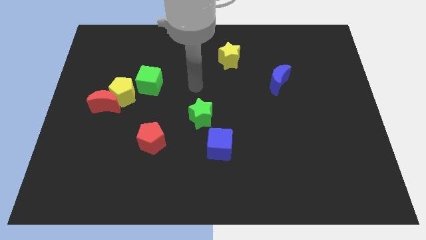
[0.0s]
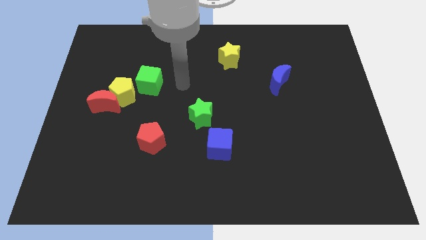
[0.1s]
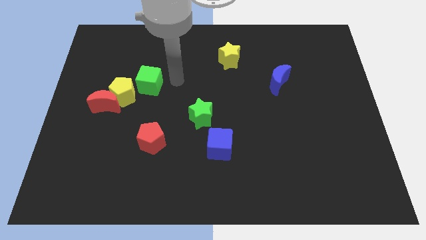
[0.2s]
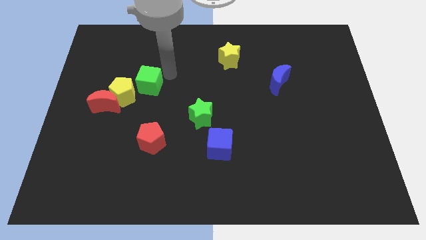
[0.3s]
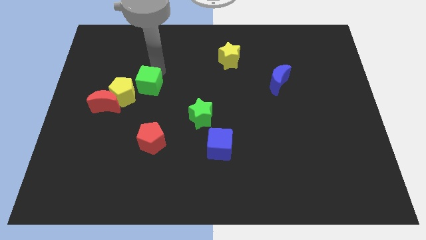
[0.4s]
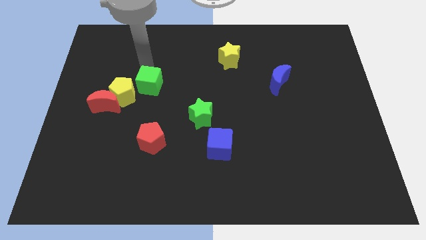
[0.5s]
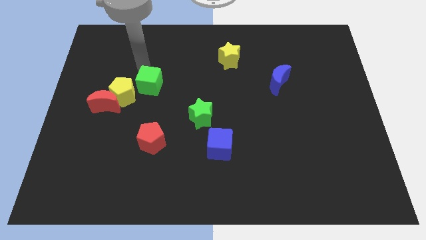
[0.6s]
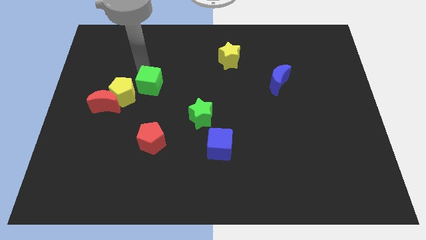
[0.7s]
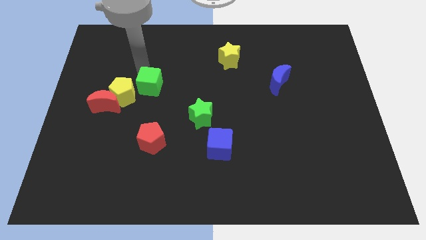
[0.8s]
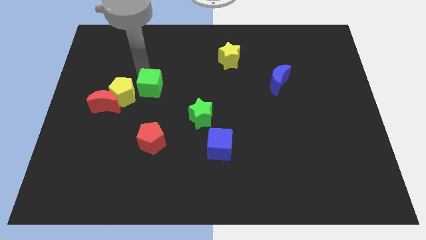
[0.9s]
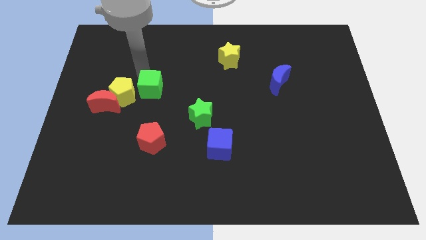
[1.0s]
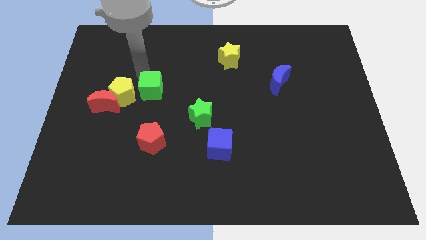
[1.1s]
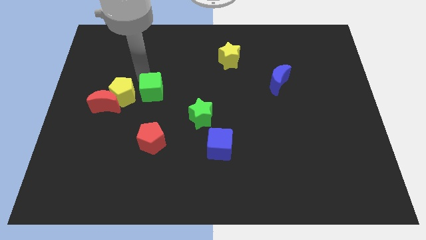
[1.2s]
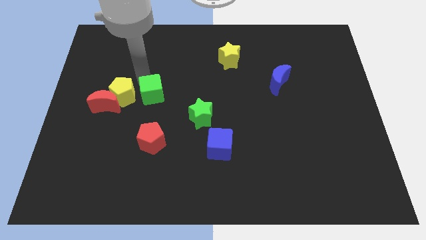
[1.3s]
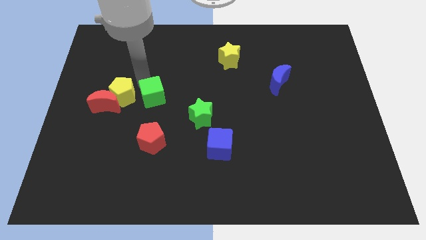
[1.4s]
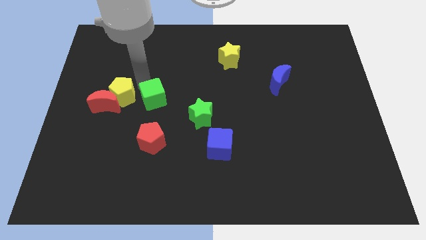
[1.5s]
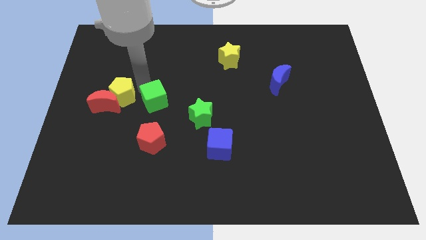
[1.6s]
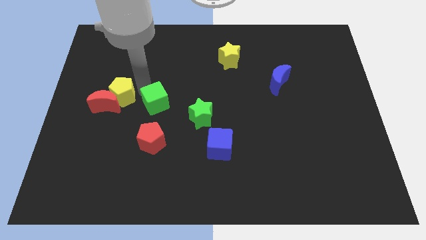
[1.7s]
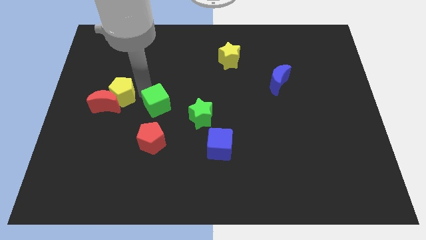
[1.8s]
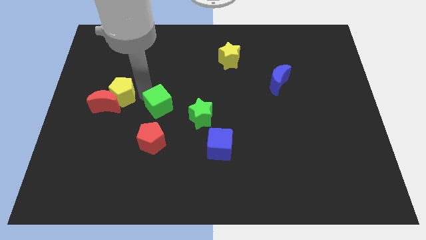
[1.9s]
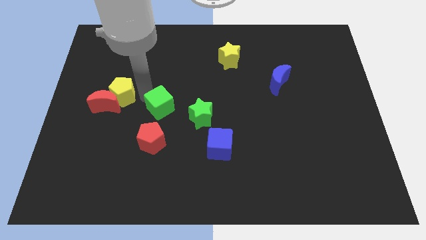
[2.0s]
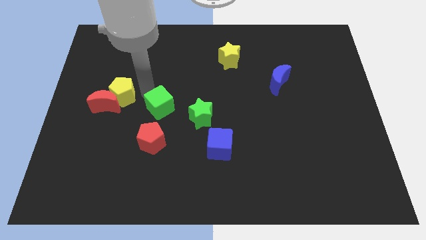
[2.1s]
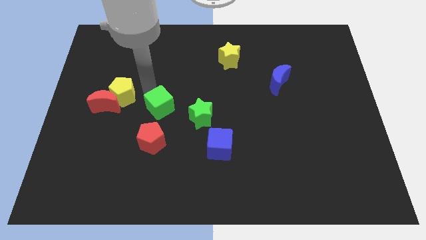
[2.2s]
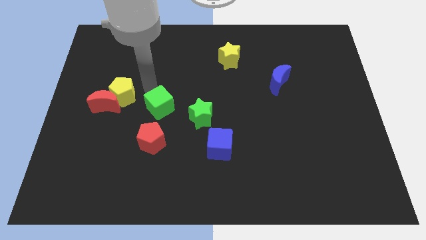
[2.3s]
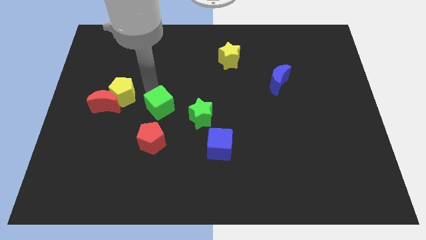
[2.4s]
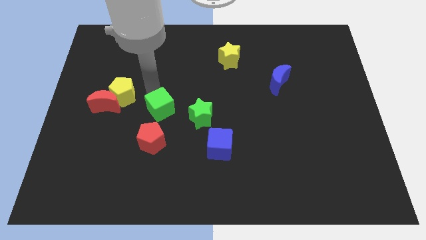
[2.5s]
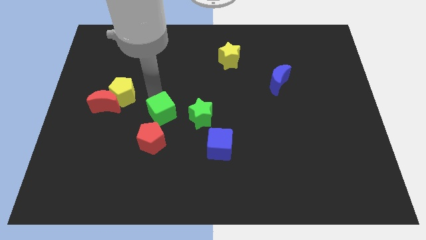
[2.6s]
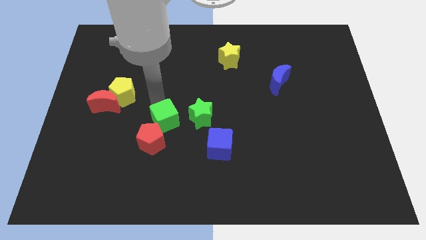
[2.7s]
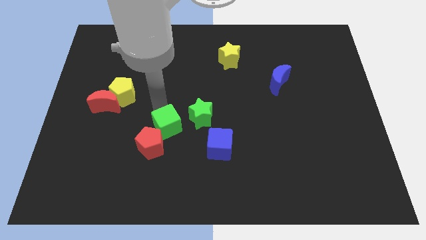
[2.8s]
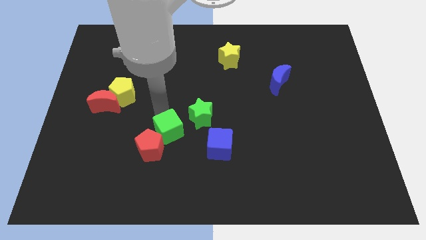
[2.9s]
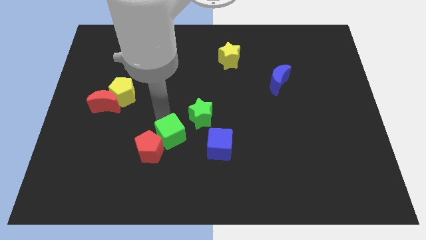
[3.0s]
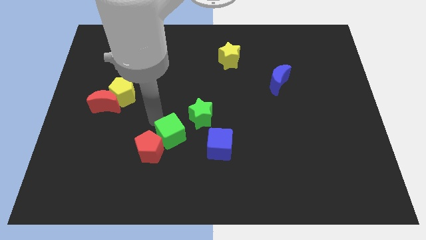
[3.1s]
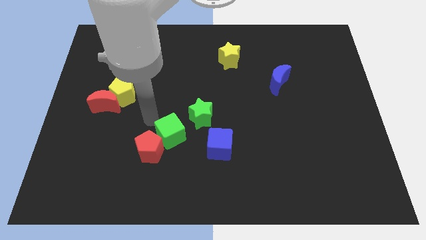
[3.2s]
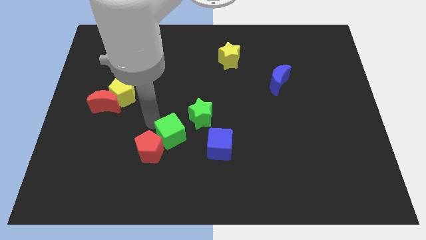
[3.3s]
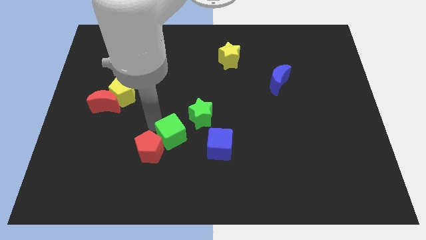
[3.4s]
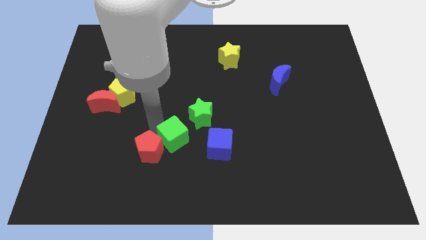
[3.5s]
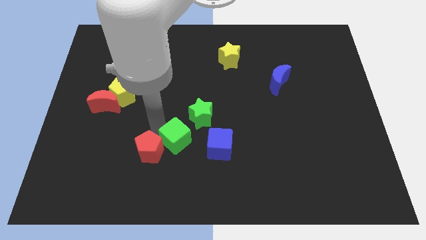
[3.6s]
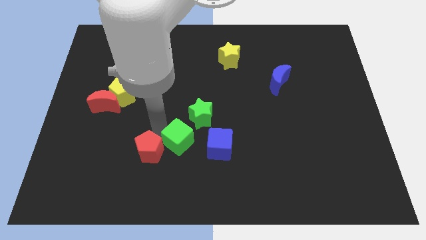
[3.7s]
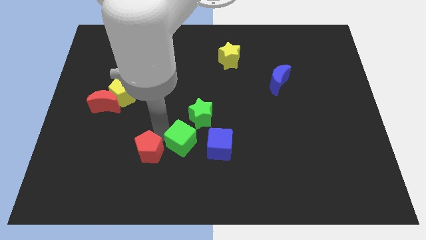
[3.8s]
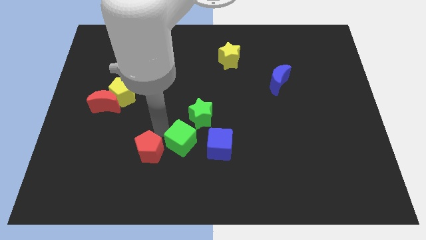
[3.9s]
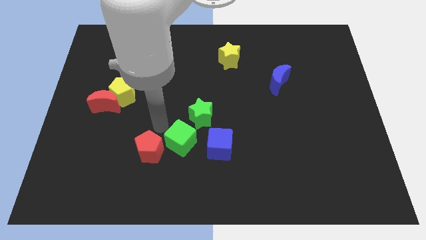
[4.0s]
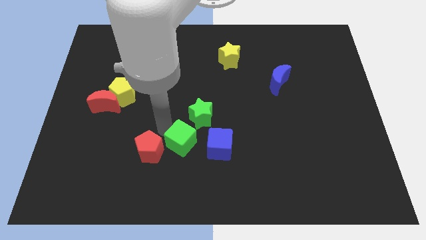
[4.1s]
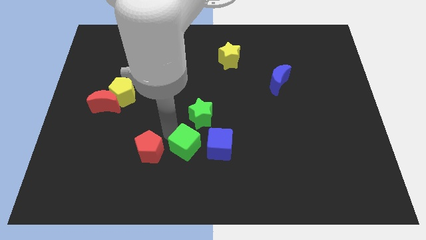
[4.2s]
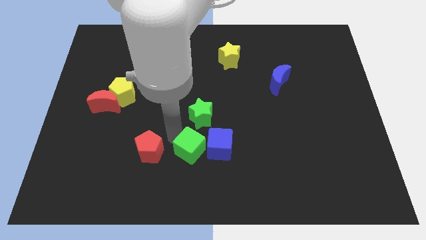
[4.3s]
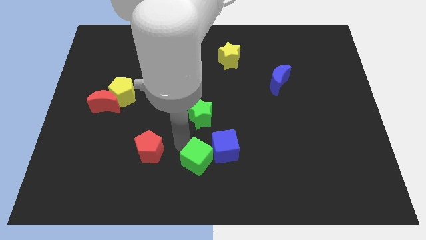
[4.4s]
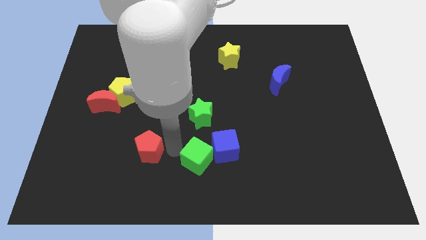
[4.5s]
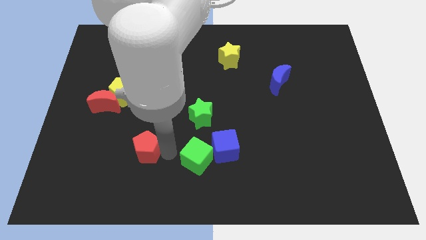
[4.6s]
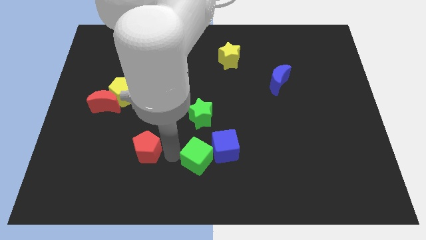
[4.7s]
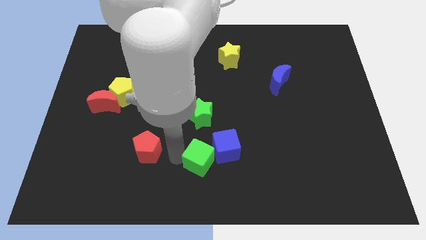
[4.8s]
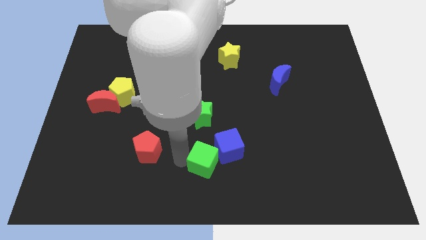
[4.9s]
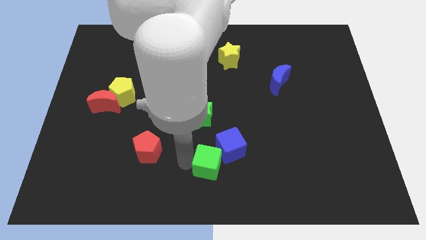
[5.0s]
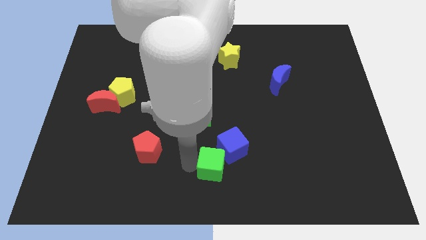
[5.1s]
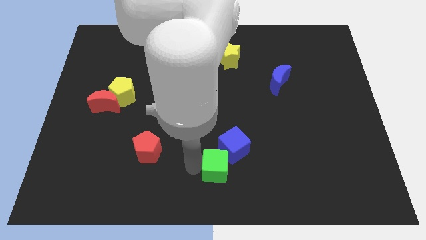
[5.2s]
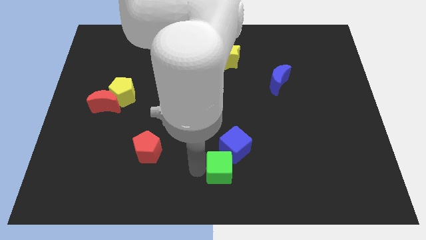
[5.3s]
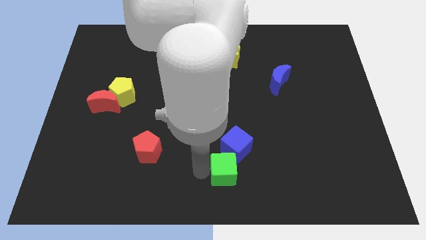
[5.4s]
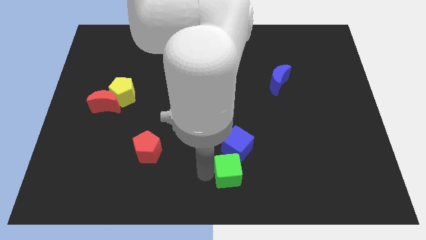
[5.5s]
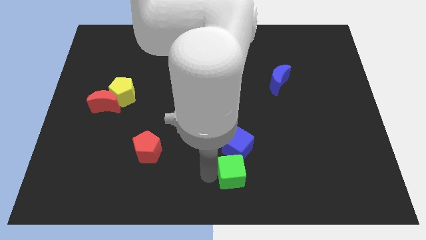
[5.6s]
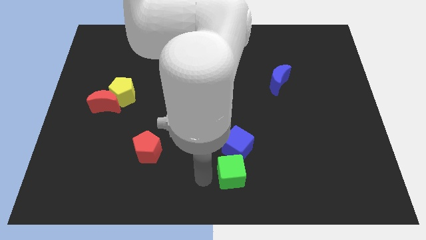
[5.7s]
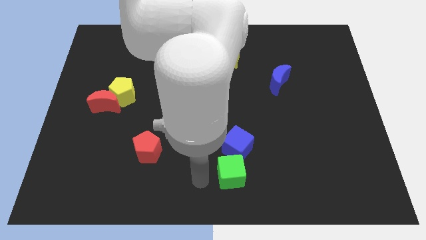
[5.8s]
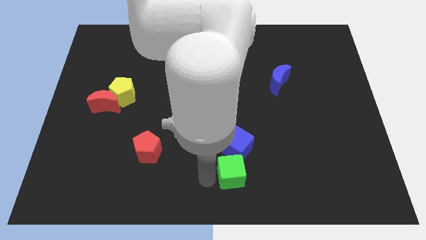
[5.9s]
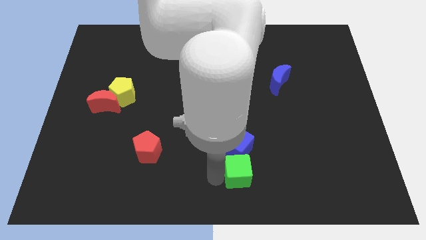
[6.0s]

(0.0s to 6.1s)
put the green cube to the bottom right of the blue cube
